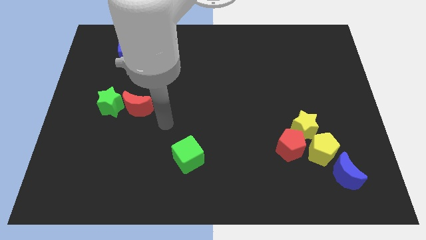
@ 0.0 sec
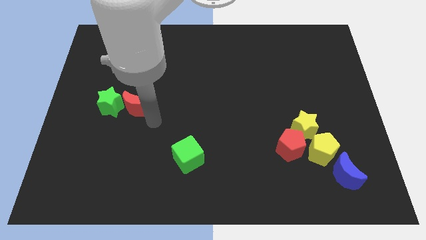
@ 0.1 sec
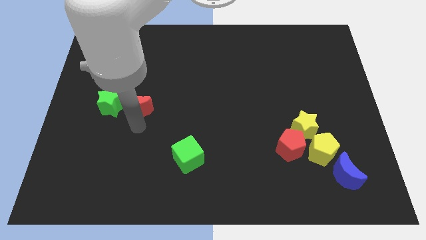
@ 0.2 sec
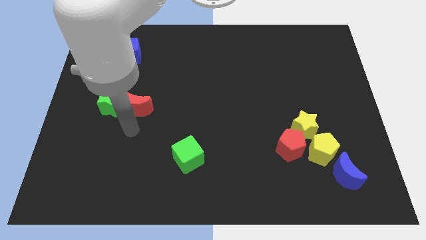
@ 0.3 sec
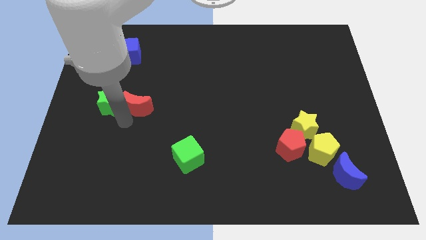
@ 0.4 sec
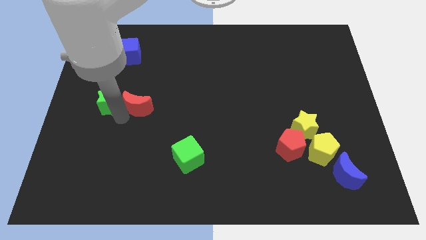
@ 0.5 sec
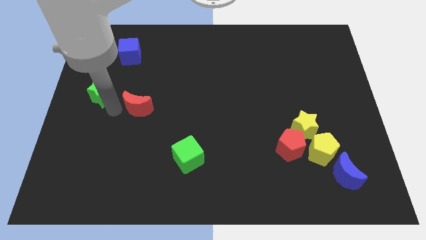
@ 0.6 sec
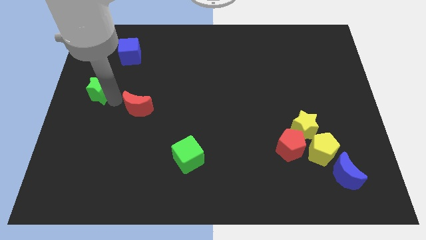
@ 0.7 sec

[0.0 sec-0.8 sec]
separate the red moon from the green star

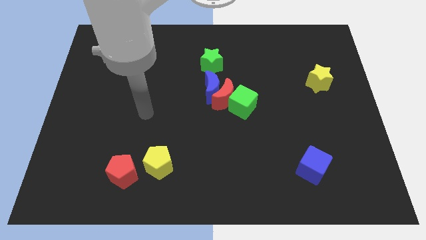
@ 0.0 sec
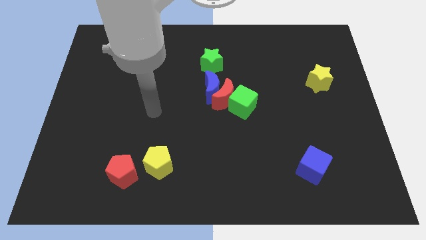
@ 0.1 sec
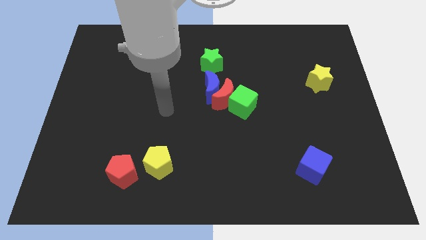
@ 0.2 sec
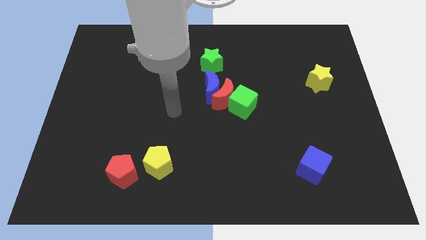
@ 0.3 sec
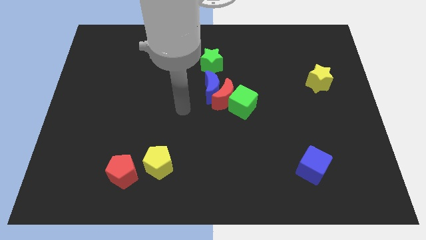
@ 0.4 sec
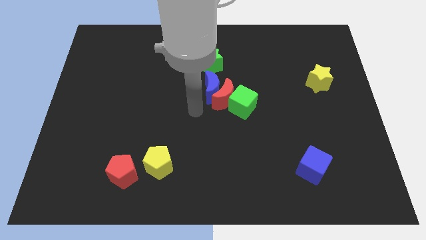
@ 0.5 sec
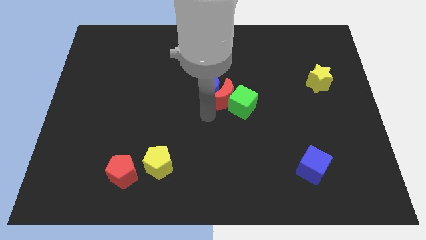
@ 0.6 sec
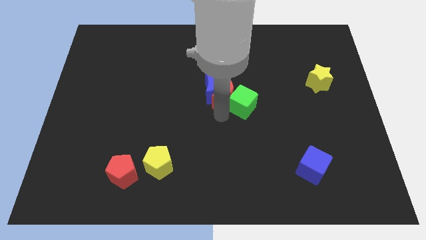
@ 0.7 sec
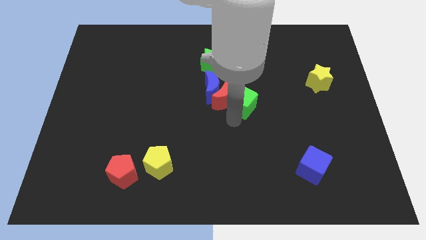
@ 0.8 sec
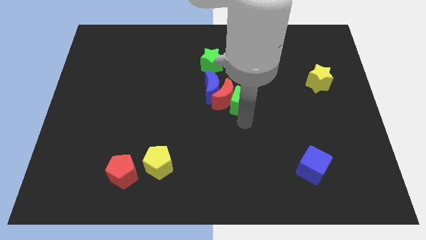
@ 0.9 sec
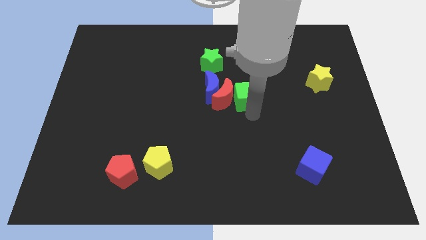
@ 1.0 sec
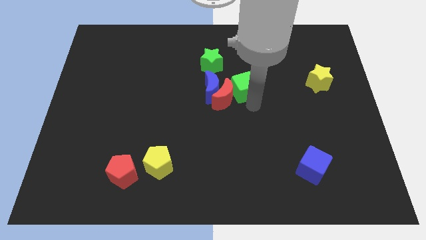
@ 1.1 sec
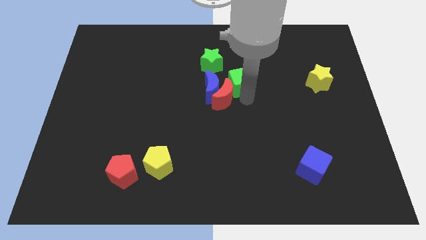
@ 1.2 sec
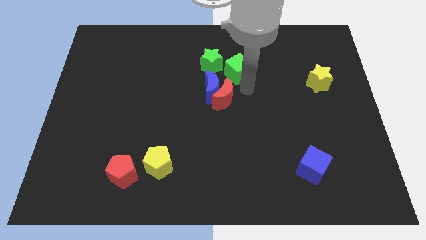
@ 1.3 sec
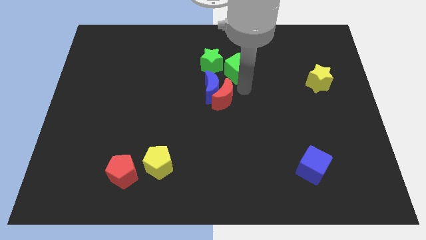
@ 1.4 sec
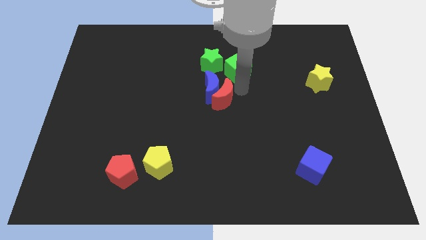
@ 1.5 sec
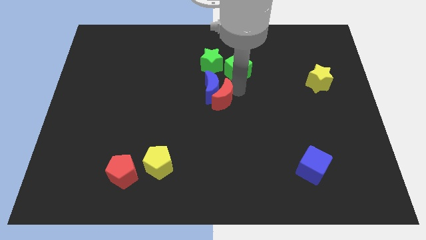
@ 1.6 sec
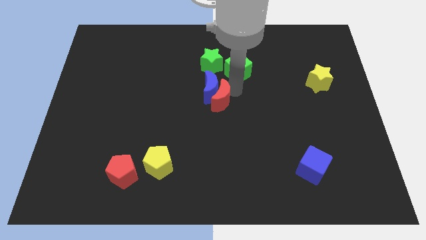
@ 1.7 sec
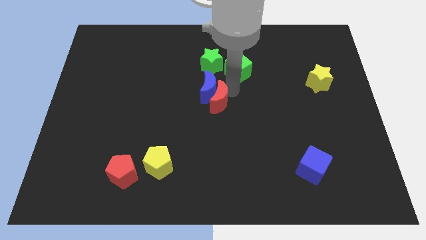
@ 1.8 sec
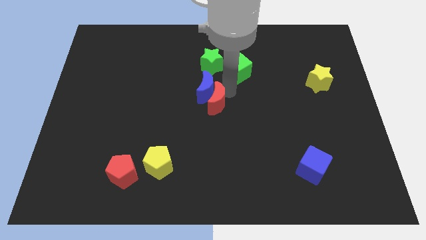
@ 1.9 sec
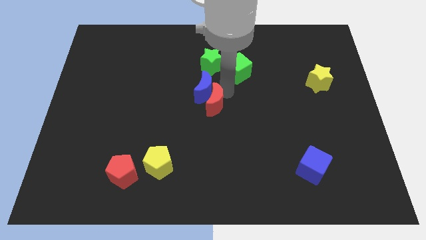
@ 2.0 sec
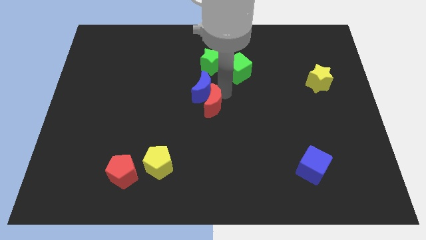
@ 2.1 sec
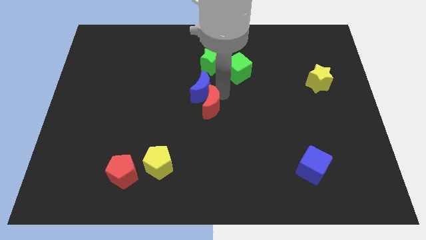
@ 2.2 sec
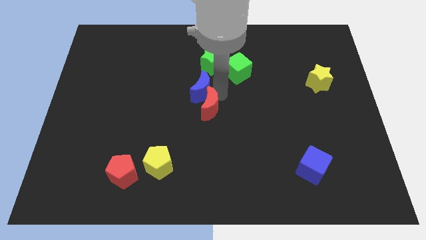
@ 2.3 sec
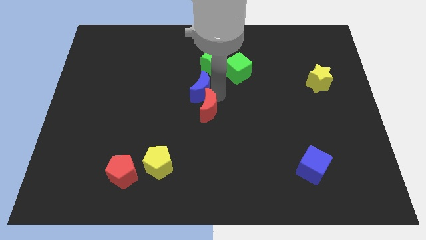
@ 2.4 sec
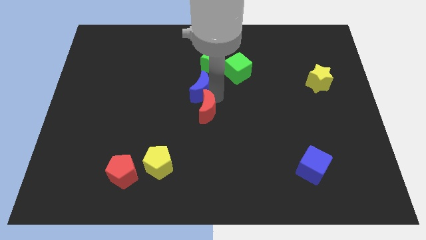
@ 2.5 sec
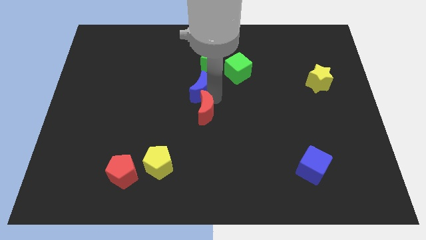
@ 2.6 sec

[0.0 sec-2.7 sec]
pull the red moon apart from the blue moon and green cube

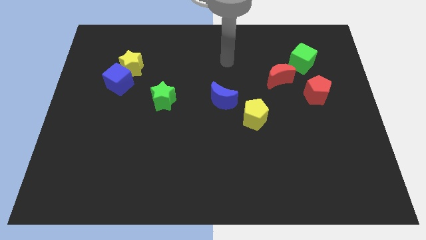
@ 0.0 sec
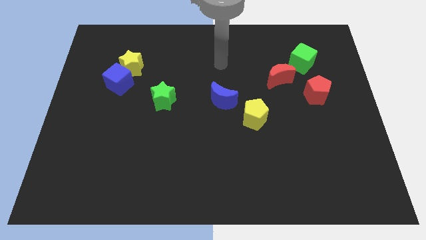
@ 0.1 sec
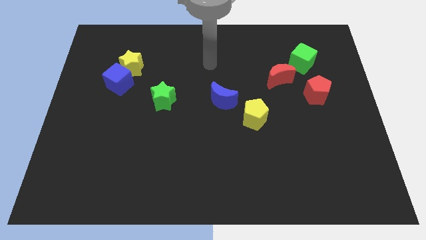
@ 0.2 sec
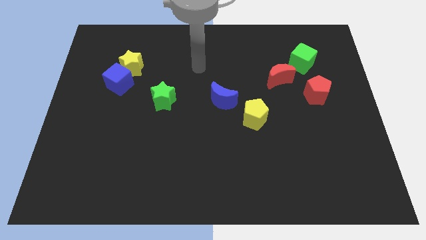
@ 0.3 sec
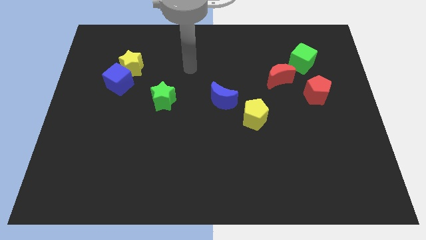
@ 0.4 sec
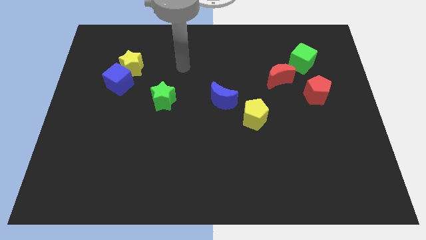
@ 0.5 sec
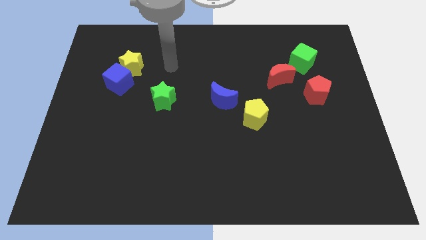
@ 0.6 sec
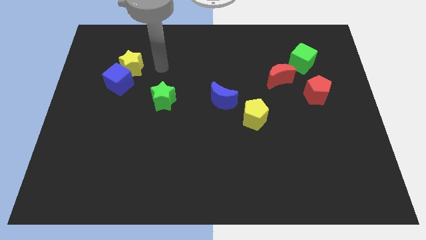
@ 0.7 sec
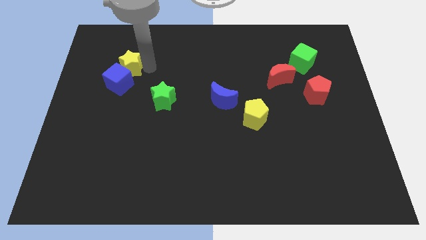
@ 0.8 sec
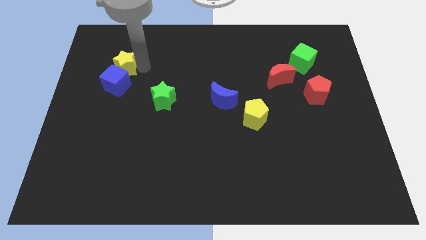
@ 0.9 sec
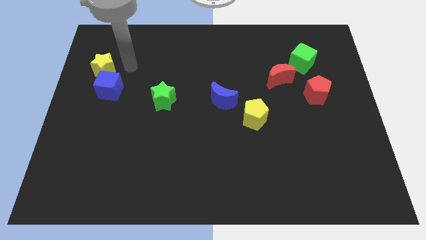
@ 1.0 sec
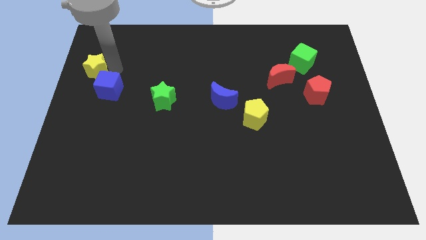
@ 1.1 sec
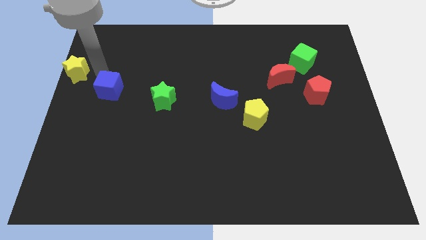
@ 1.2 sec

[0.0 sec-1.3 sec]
pull the blue cube apart from the yellow star

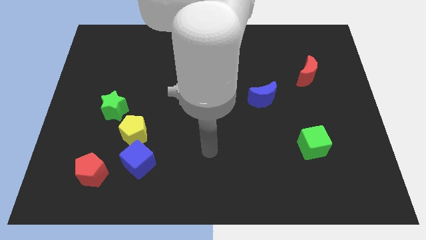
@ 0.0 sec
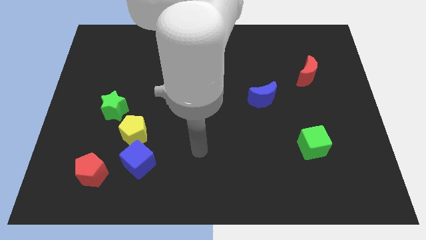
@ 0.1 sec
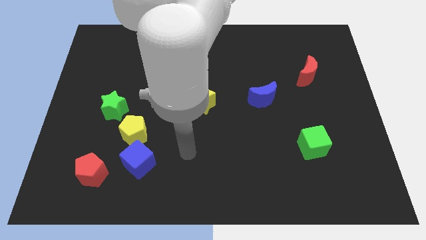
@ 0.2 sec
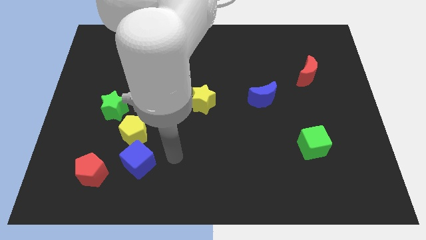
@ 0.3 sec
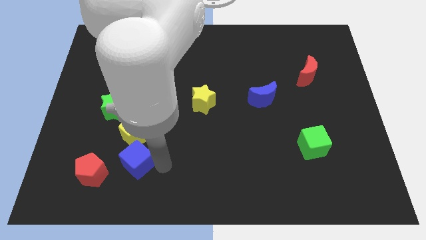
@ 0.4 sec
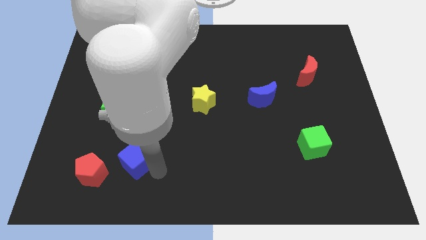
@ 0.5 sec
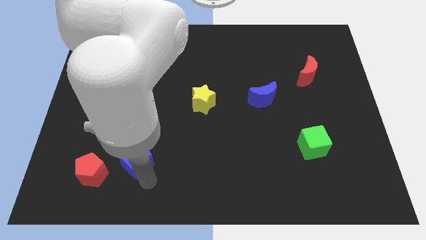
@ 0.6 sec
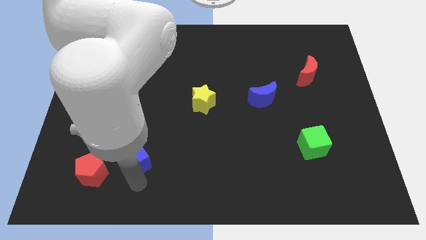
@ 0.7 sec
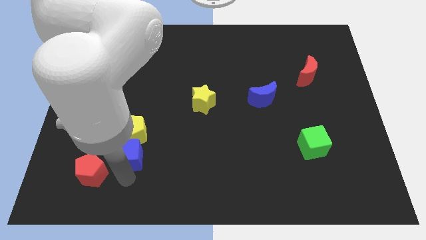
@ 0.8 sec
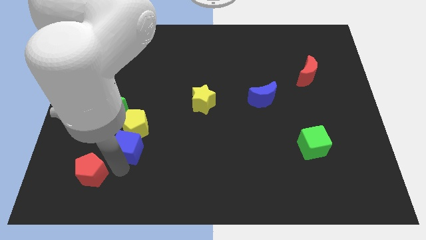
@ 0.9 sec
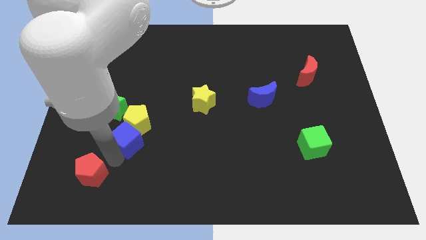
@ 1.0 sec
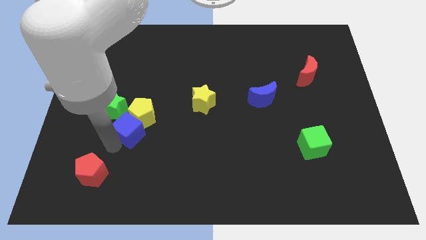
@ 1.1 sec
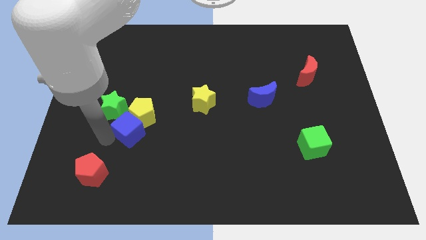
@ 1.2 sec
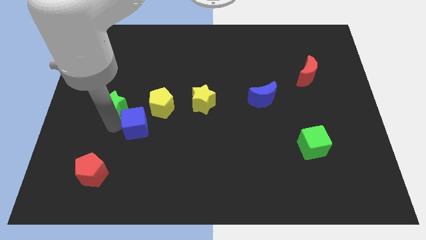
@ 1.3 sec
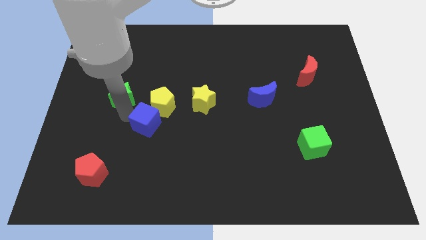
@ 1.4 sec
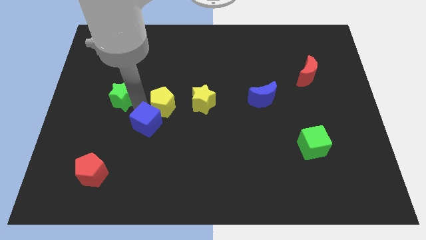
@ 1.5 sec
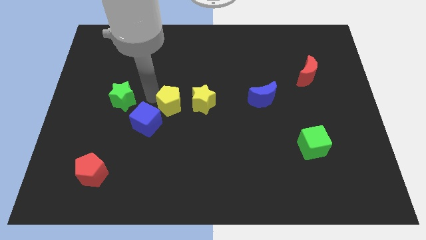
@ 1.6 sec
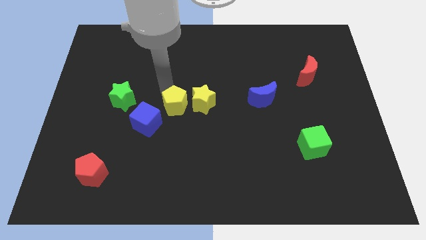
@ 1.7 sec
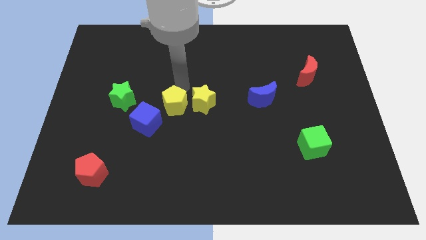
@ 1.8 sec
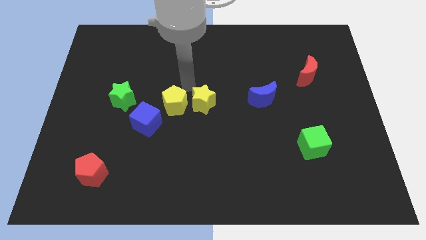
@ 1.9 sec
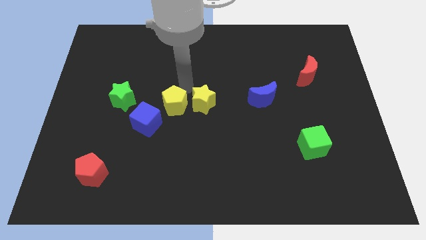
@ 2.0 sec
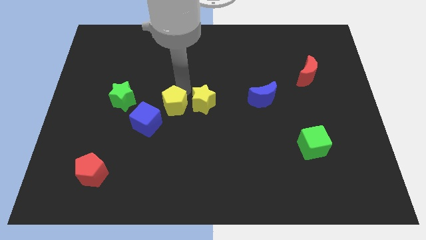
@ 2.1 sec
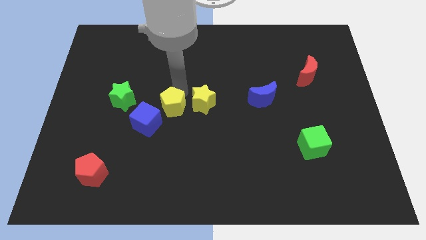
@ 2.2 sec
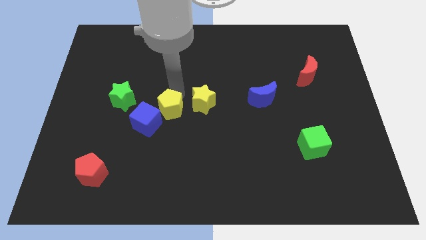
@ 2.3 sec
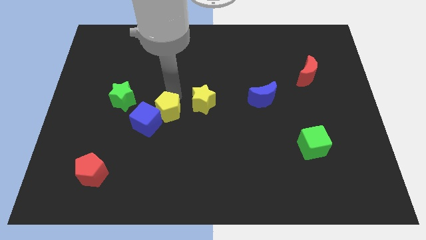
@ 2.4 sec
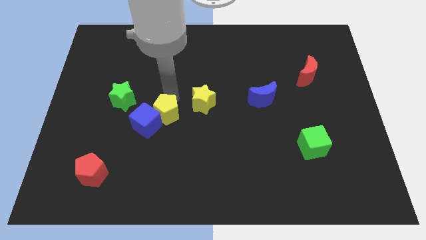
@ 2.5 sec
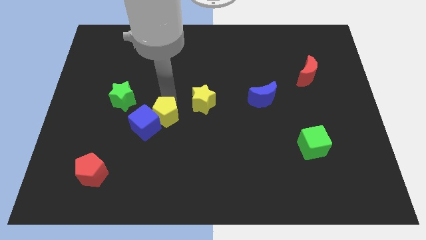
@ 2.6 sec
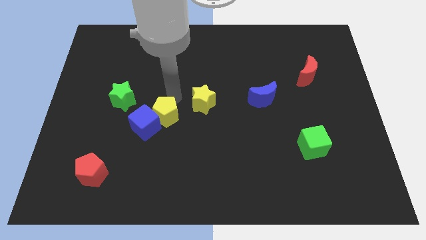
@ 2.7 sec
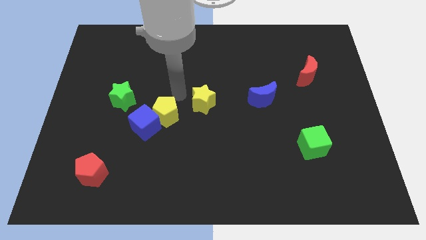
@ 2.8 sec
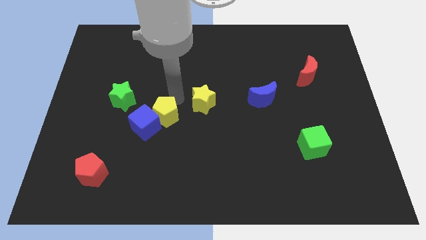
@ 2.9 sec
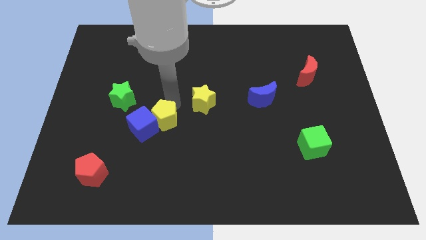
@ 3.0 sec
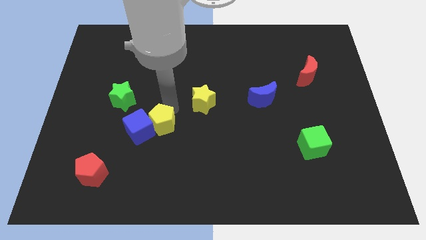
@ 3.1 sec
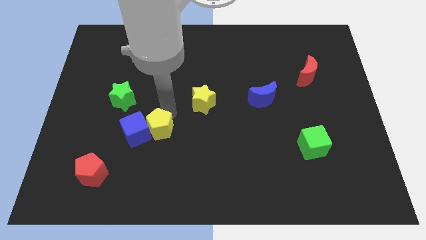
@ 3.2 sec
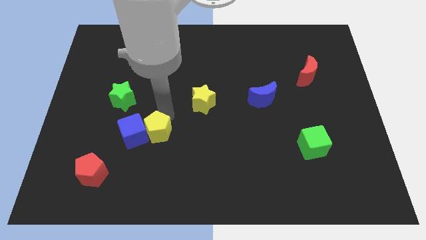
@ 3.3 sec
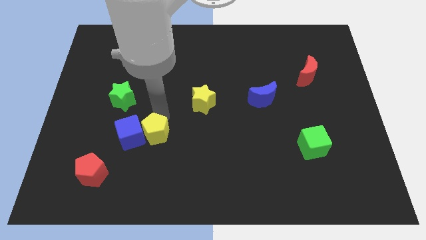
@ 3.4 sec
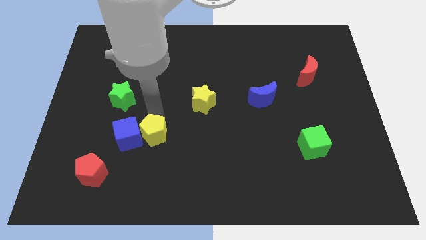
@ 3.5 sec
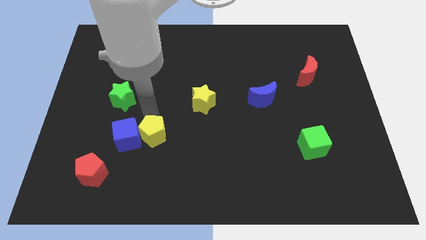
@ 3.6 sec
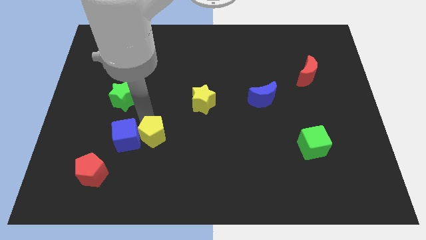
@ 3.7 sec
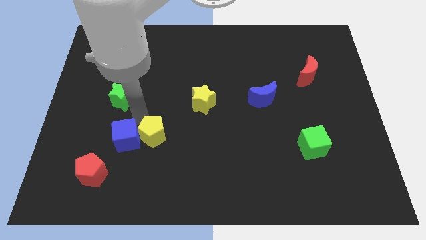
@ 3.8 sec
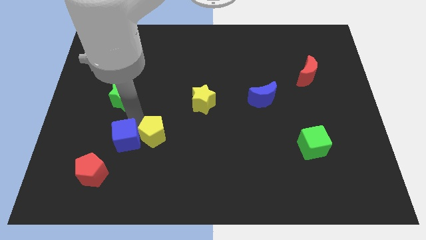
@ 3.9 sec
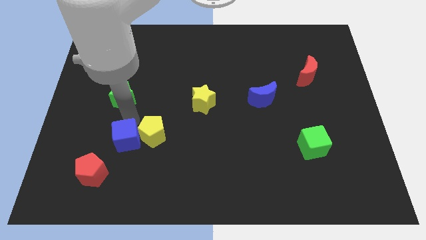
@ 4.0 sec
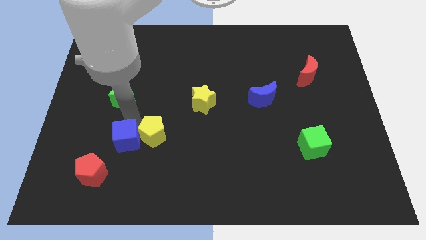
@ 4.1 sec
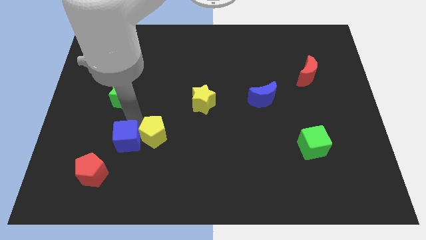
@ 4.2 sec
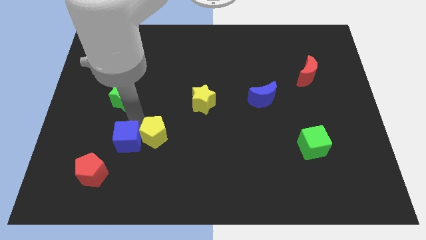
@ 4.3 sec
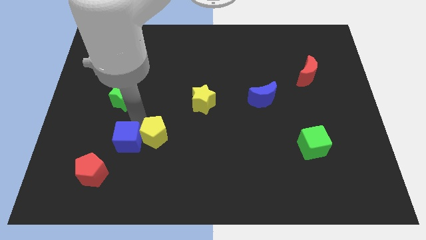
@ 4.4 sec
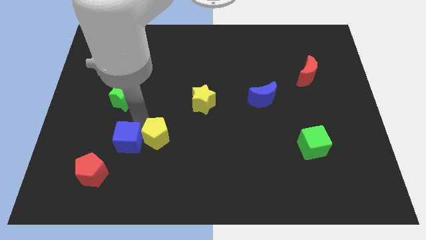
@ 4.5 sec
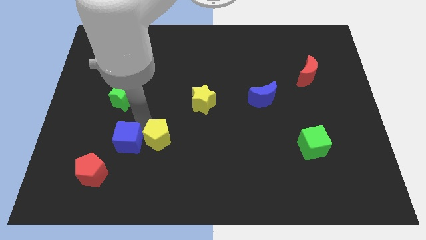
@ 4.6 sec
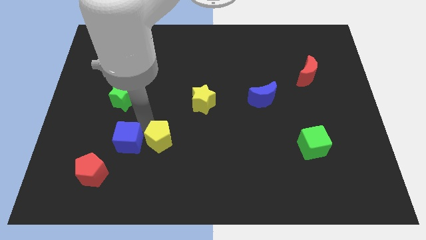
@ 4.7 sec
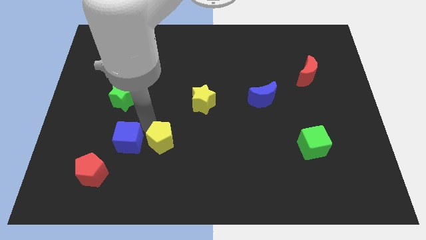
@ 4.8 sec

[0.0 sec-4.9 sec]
separate the yellow pentagon from the blue cube and green star